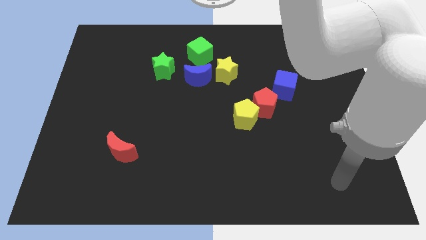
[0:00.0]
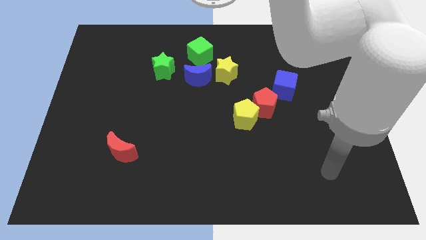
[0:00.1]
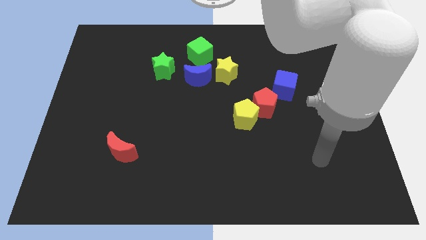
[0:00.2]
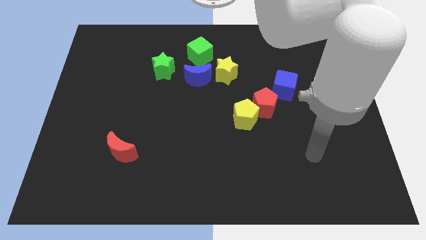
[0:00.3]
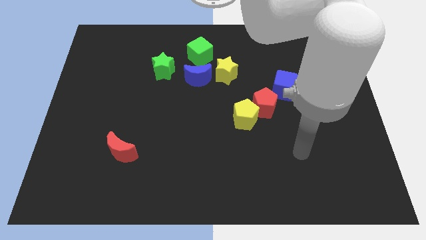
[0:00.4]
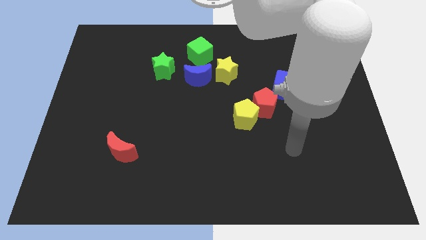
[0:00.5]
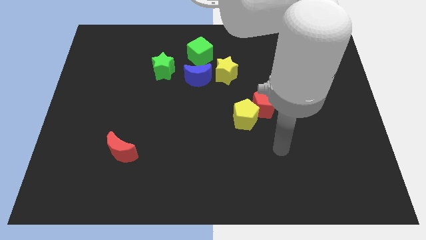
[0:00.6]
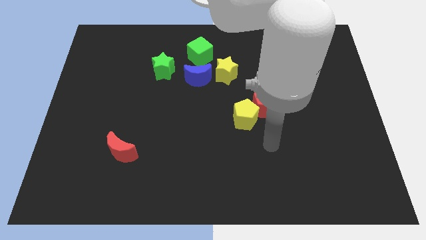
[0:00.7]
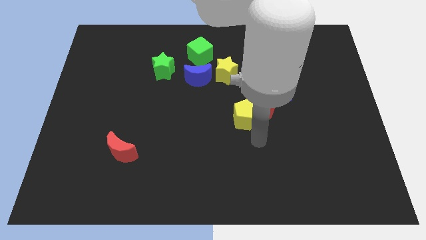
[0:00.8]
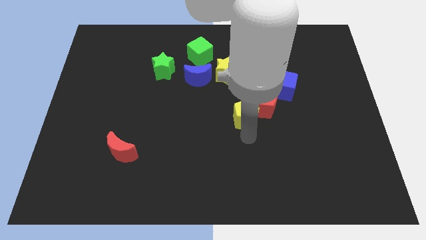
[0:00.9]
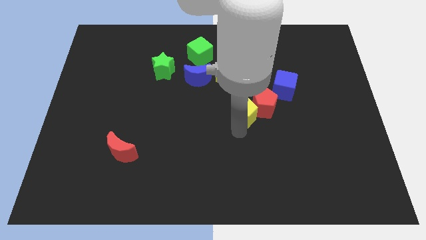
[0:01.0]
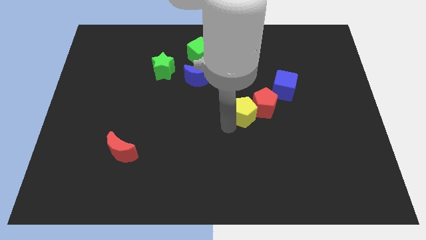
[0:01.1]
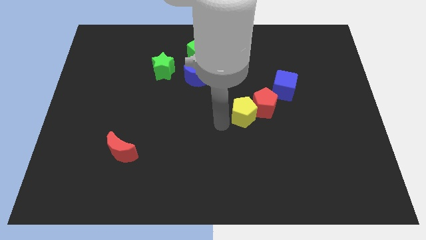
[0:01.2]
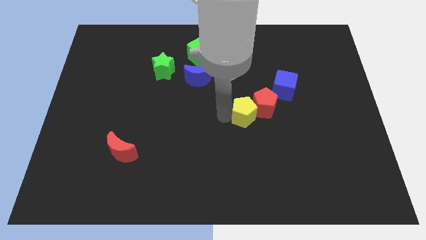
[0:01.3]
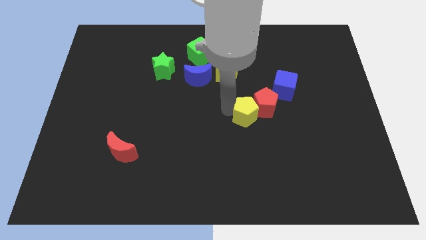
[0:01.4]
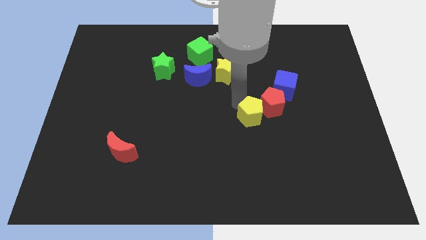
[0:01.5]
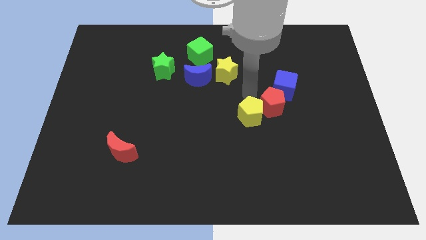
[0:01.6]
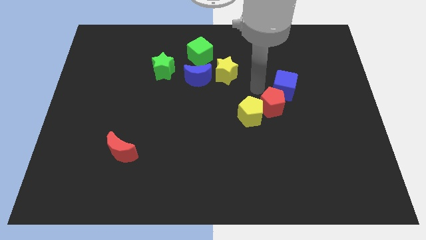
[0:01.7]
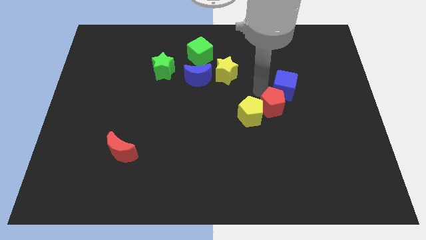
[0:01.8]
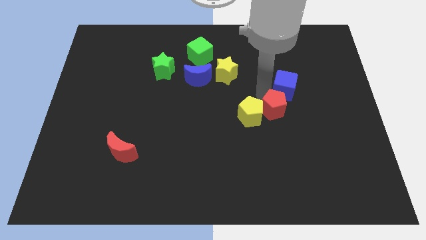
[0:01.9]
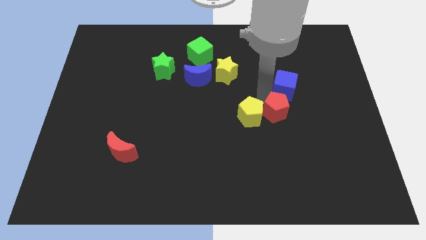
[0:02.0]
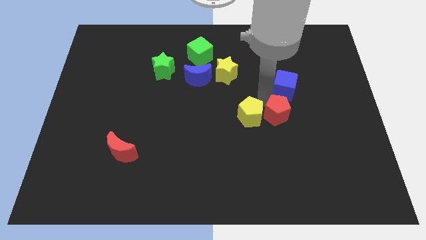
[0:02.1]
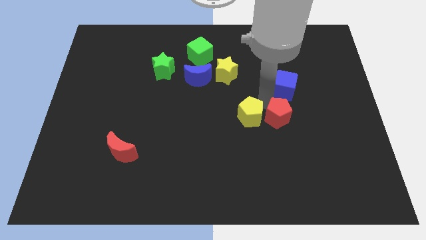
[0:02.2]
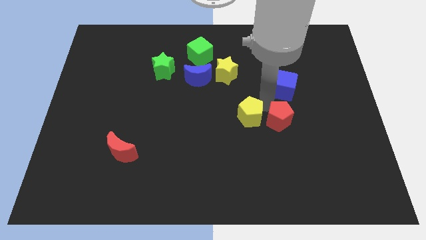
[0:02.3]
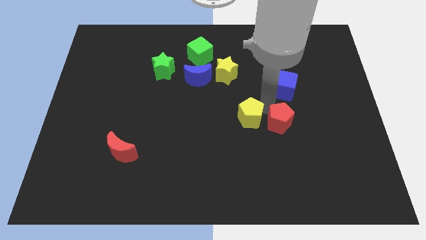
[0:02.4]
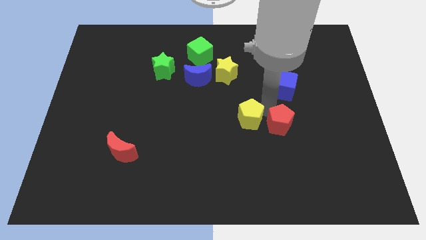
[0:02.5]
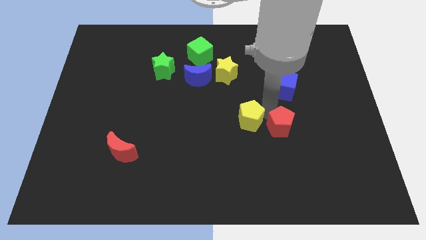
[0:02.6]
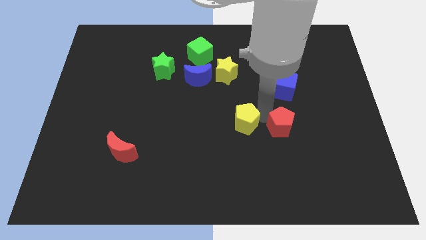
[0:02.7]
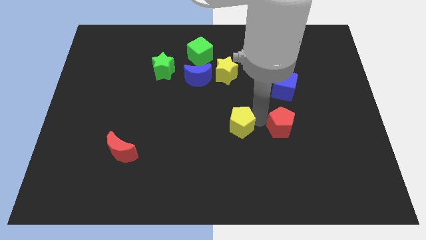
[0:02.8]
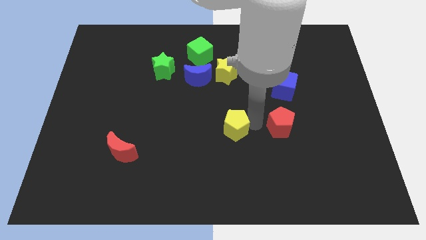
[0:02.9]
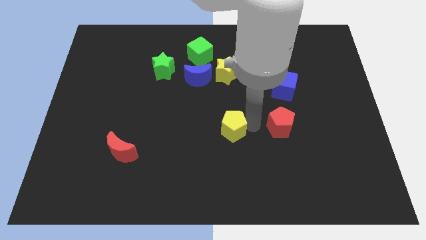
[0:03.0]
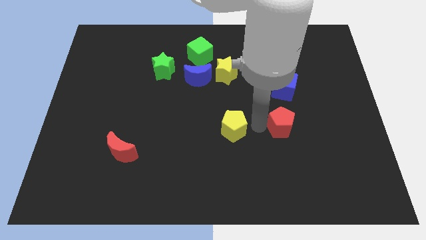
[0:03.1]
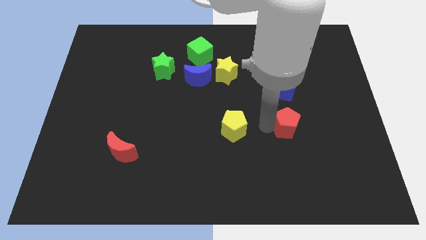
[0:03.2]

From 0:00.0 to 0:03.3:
slightly push the red pentagon downwards and then right

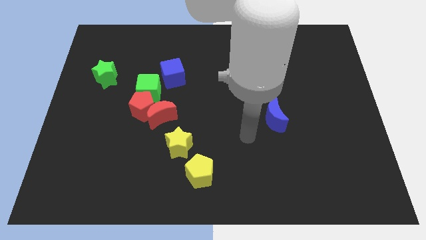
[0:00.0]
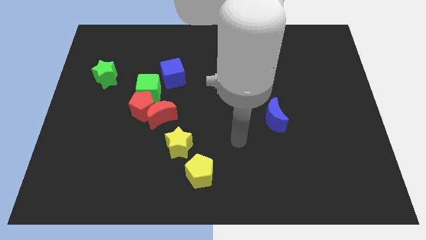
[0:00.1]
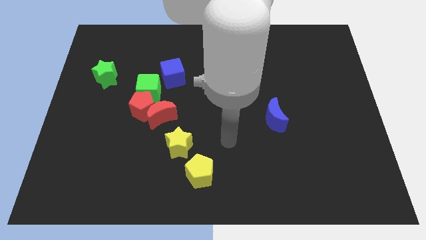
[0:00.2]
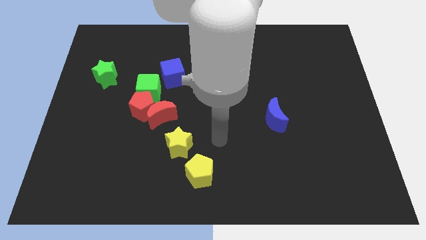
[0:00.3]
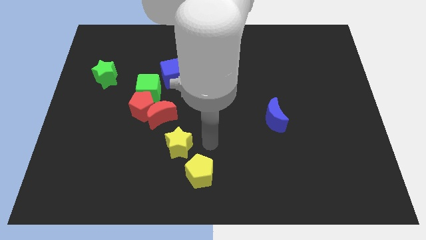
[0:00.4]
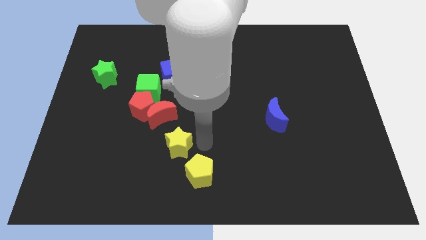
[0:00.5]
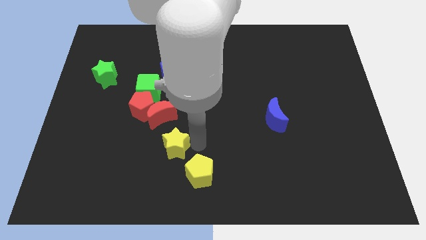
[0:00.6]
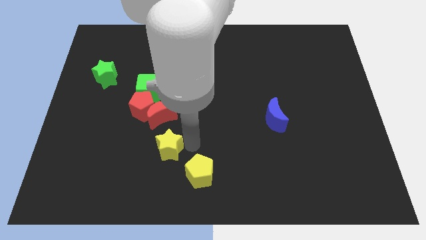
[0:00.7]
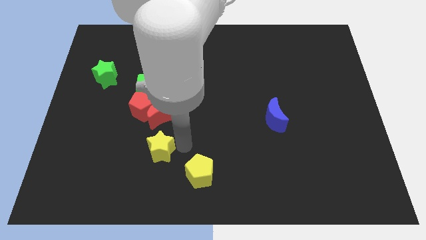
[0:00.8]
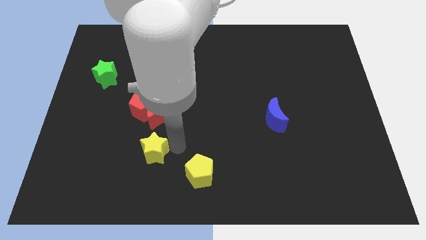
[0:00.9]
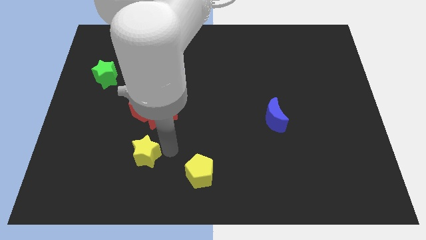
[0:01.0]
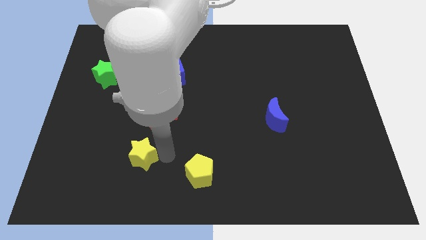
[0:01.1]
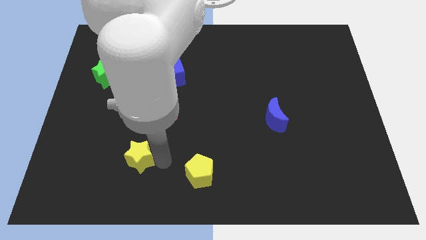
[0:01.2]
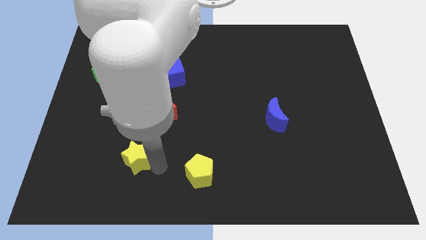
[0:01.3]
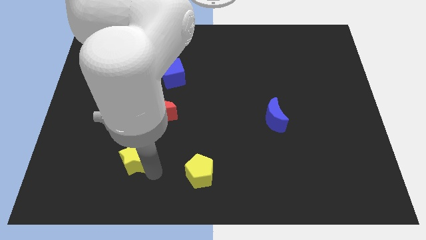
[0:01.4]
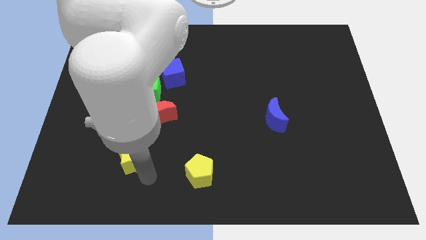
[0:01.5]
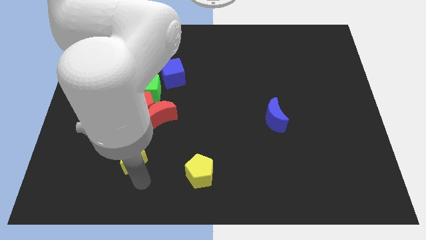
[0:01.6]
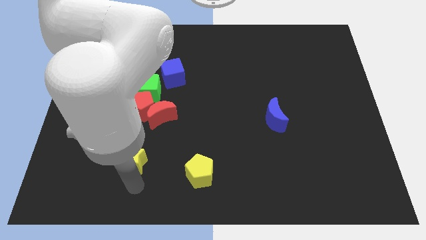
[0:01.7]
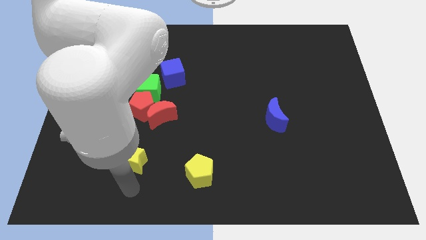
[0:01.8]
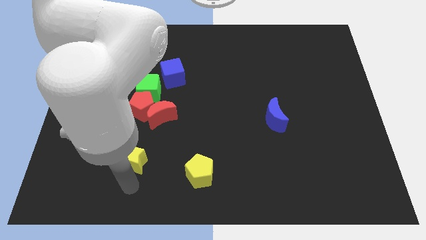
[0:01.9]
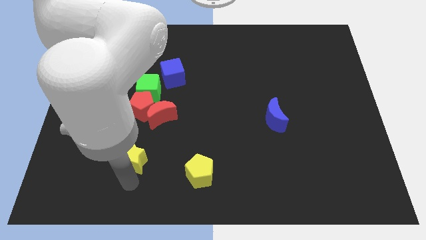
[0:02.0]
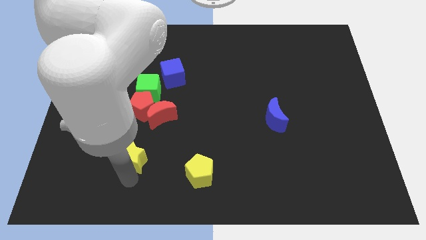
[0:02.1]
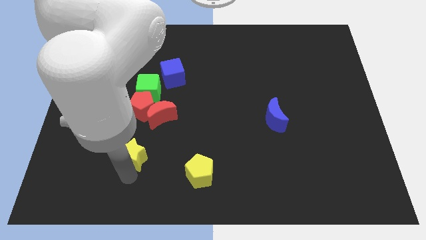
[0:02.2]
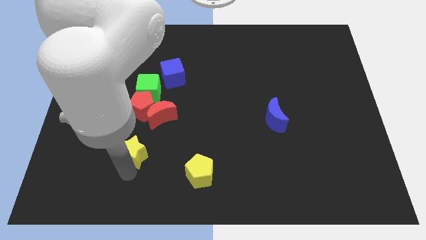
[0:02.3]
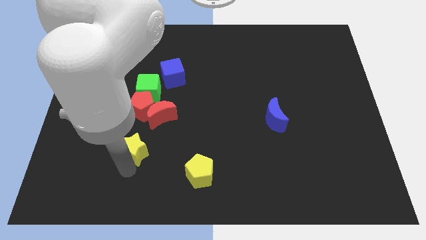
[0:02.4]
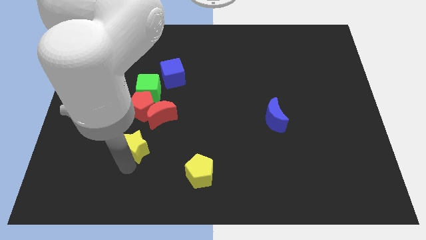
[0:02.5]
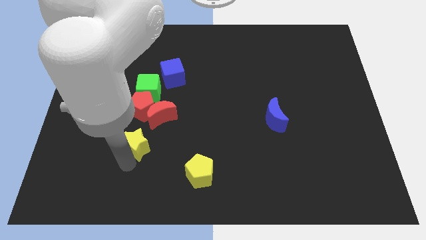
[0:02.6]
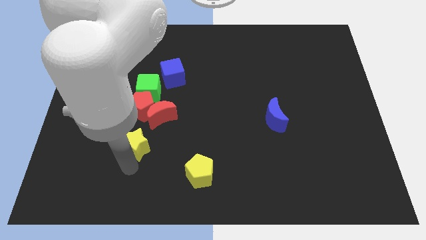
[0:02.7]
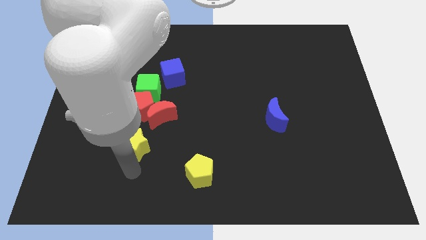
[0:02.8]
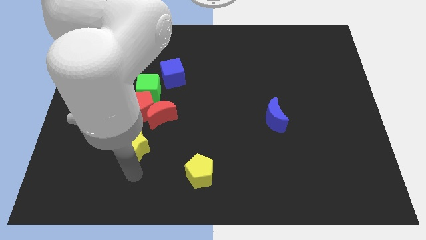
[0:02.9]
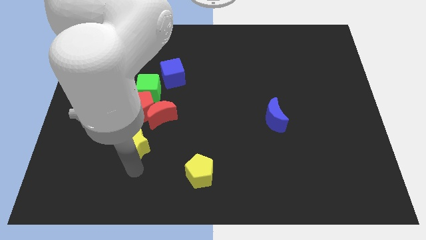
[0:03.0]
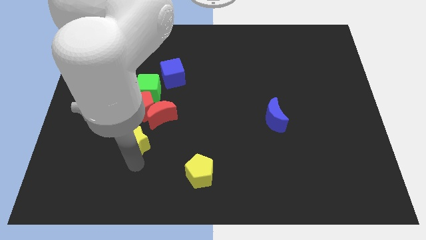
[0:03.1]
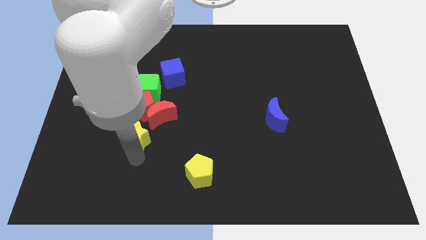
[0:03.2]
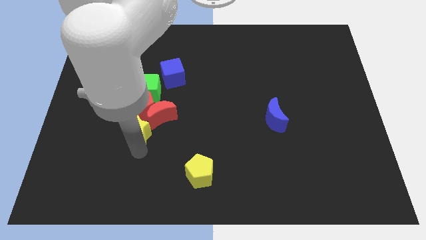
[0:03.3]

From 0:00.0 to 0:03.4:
slide the yellow star diagonally up and left a little bit

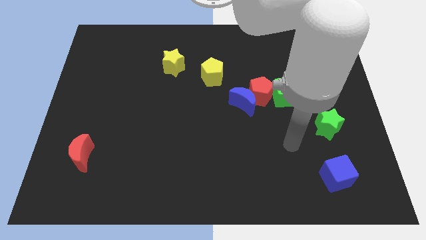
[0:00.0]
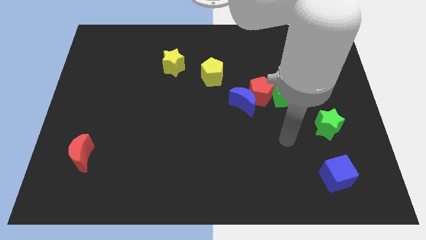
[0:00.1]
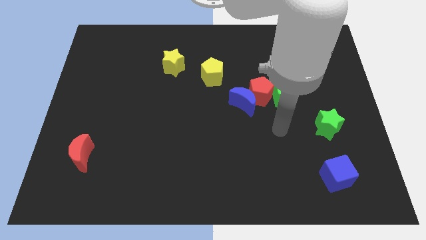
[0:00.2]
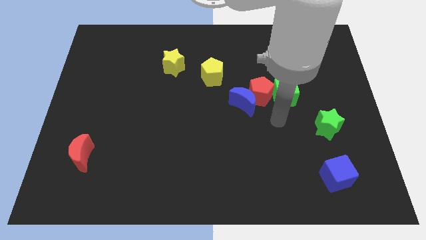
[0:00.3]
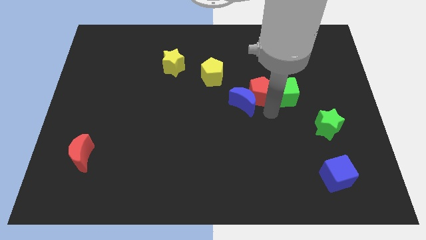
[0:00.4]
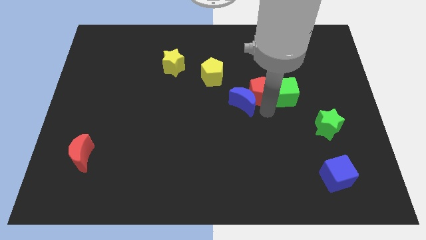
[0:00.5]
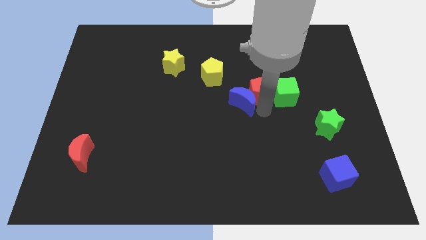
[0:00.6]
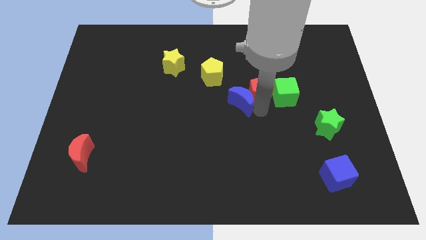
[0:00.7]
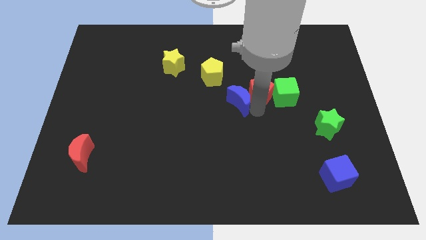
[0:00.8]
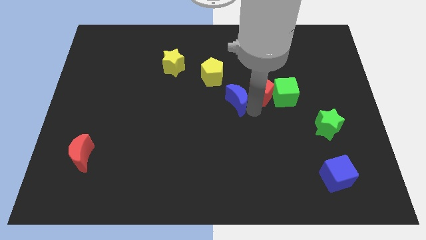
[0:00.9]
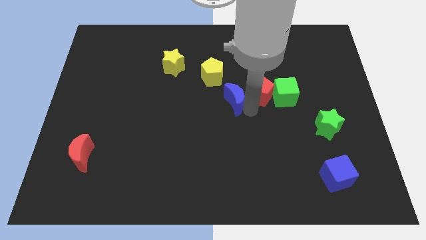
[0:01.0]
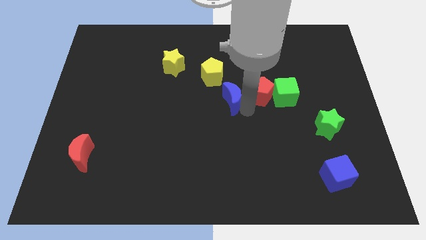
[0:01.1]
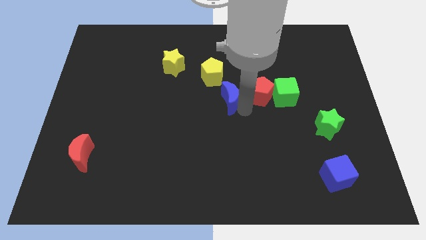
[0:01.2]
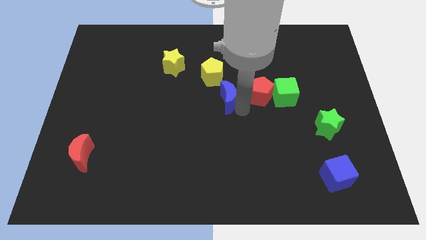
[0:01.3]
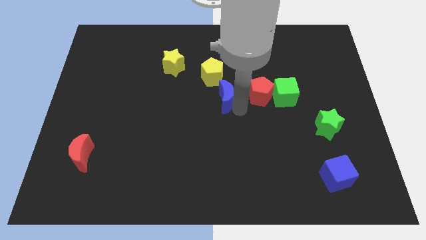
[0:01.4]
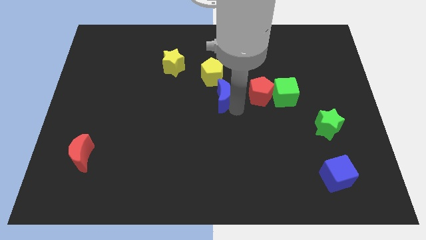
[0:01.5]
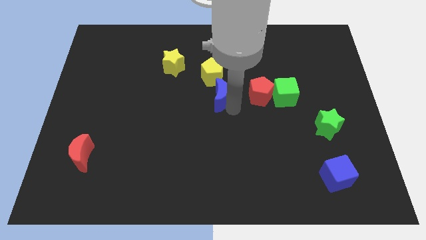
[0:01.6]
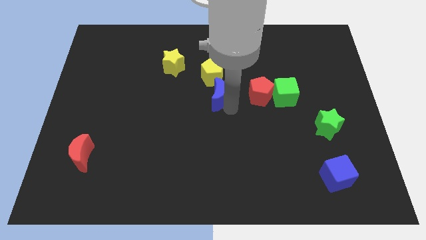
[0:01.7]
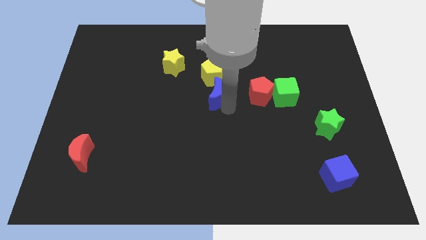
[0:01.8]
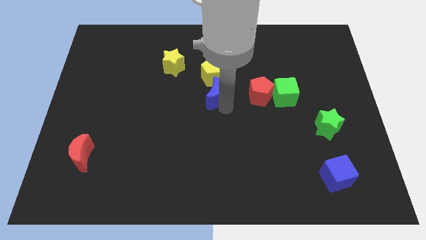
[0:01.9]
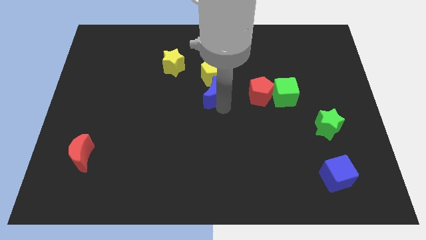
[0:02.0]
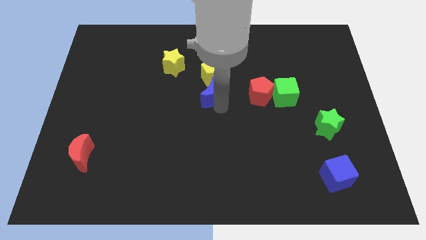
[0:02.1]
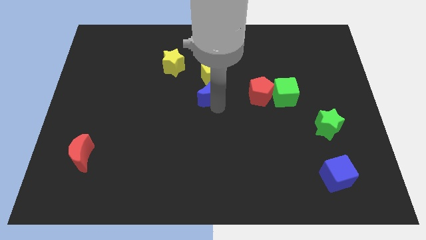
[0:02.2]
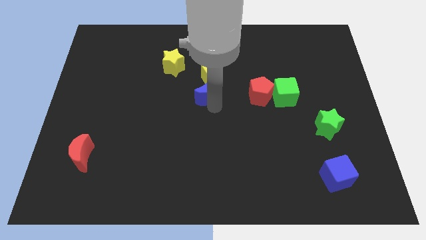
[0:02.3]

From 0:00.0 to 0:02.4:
slide the blue moon a little bit diagonally upwards and to the left
